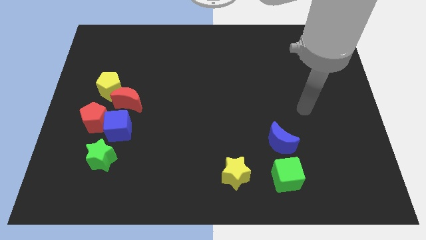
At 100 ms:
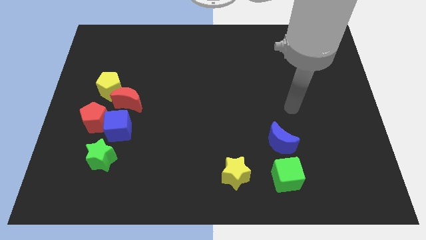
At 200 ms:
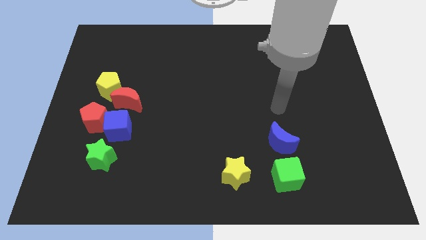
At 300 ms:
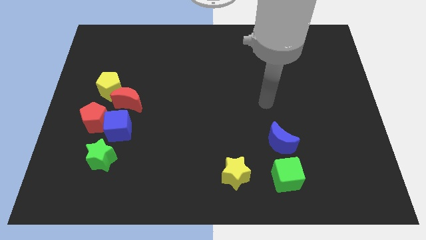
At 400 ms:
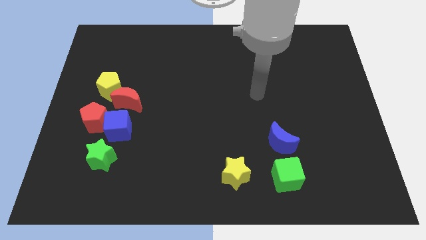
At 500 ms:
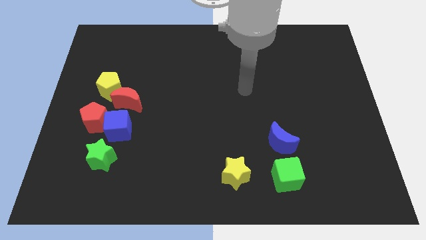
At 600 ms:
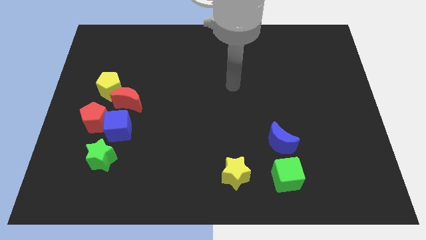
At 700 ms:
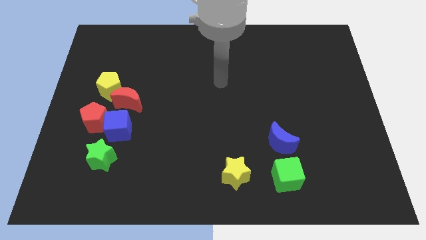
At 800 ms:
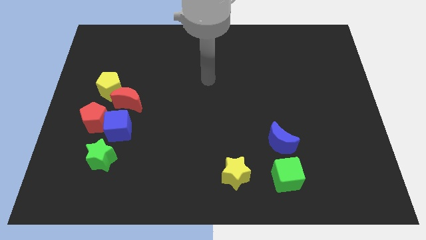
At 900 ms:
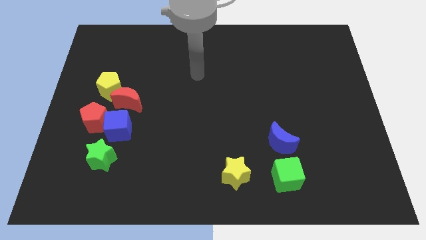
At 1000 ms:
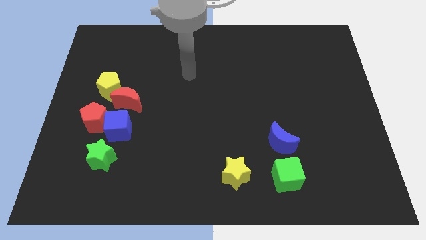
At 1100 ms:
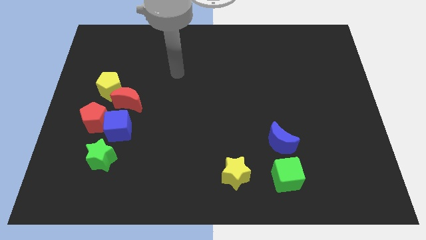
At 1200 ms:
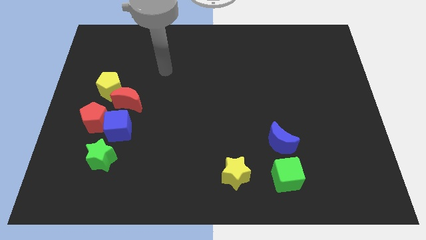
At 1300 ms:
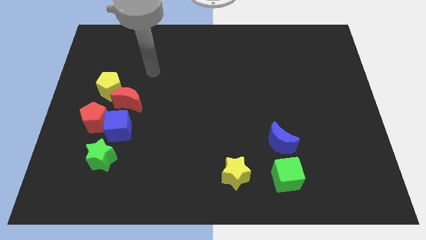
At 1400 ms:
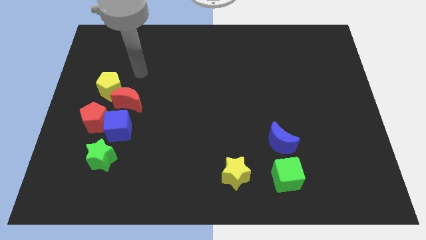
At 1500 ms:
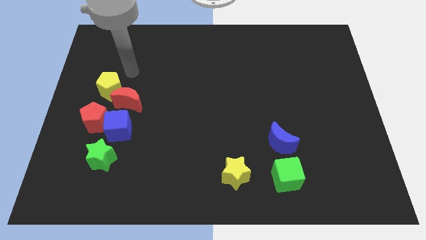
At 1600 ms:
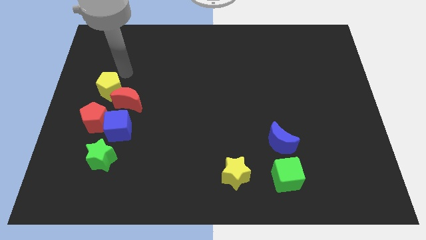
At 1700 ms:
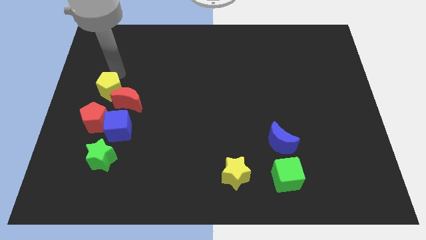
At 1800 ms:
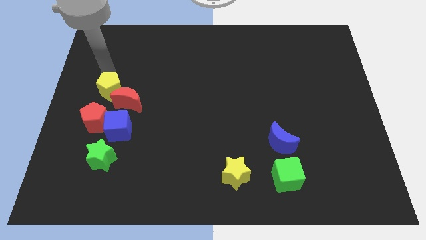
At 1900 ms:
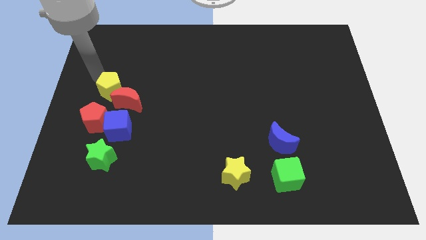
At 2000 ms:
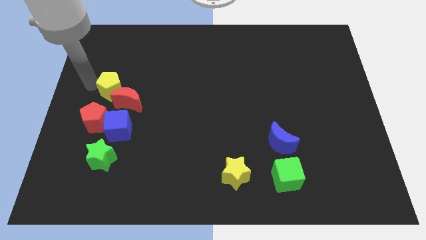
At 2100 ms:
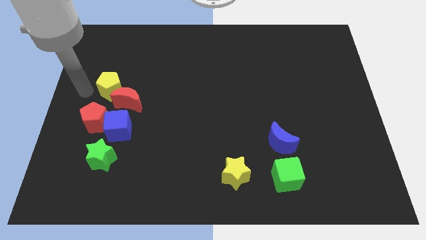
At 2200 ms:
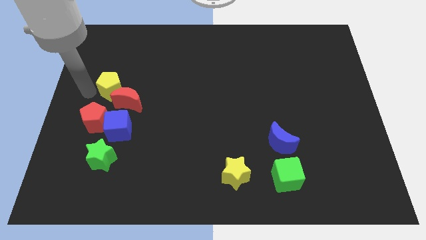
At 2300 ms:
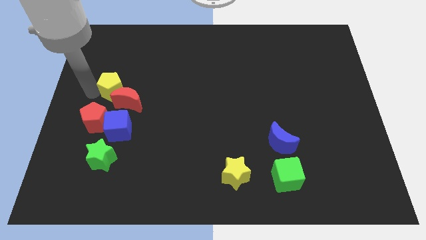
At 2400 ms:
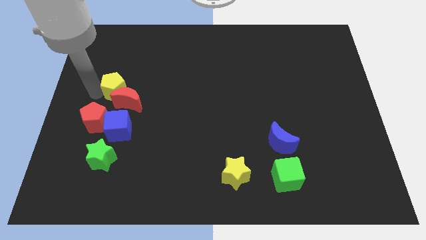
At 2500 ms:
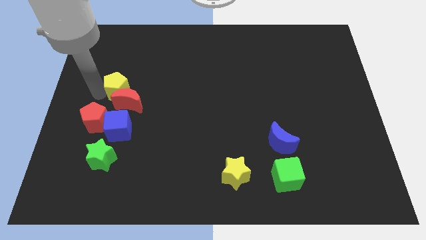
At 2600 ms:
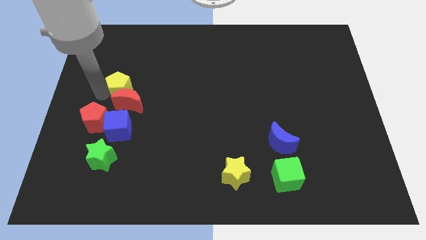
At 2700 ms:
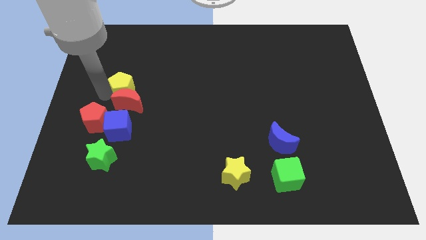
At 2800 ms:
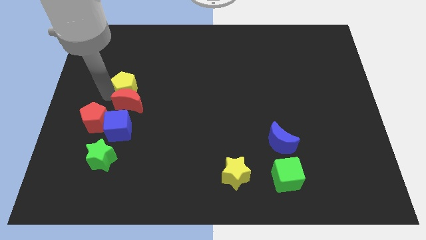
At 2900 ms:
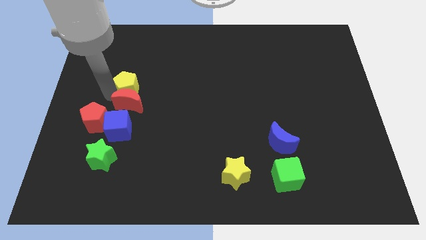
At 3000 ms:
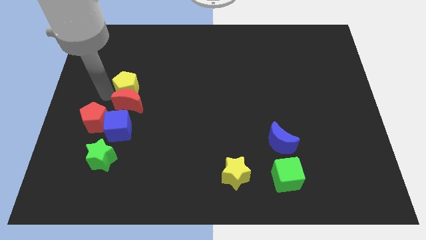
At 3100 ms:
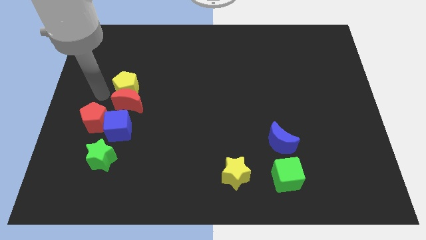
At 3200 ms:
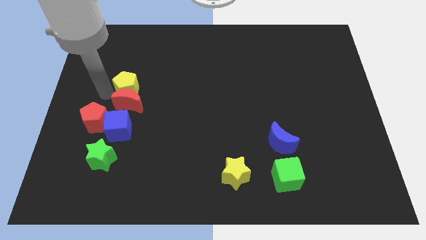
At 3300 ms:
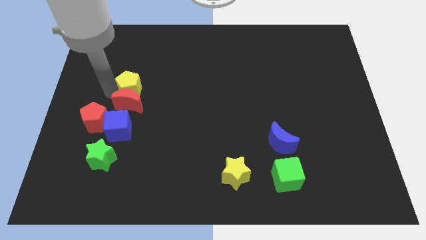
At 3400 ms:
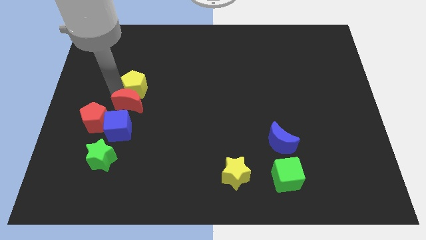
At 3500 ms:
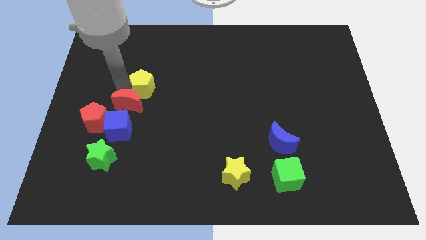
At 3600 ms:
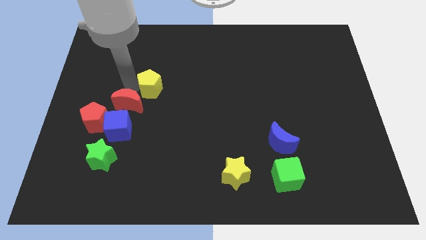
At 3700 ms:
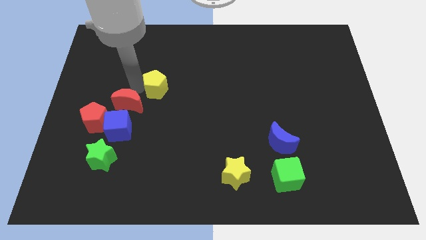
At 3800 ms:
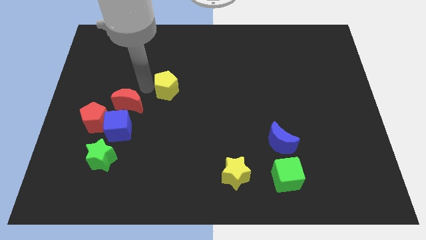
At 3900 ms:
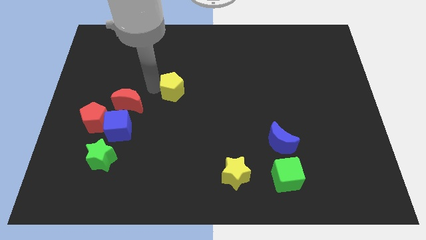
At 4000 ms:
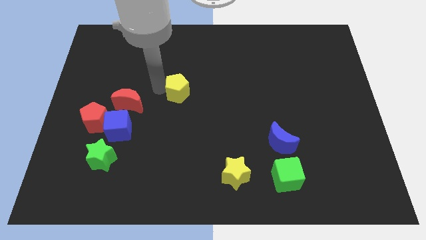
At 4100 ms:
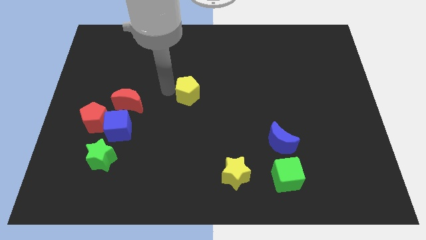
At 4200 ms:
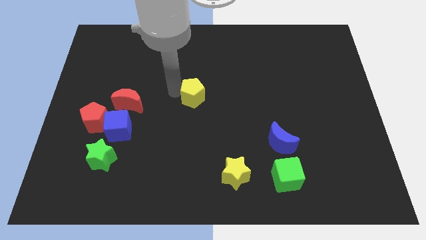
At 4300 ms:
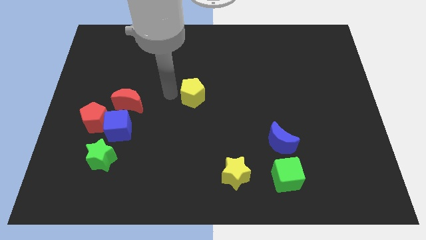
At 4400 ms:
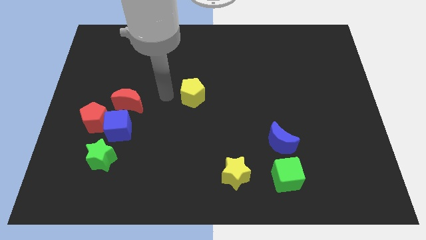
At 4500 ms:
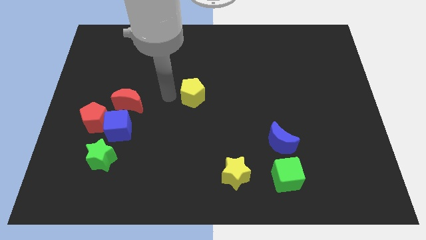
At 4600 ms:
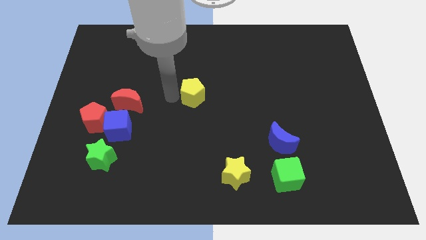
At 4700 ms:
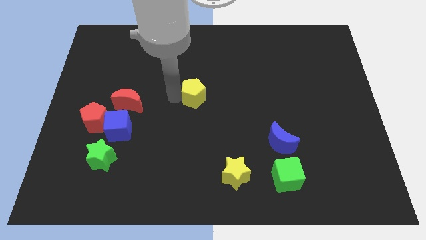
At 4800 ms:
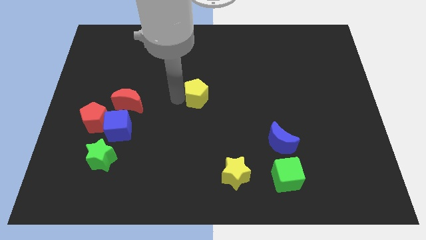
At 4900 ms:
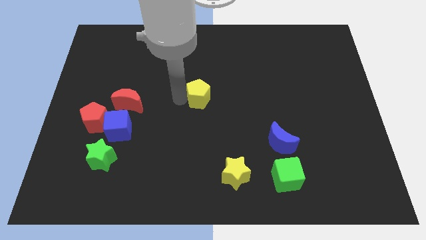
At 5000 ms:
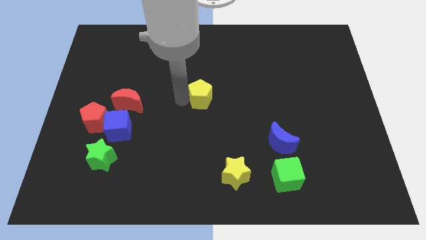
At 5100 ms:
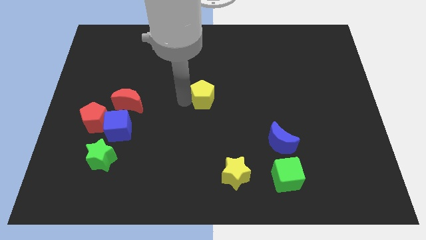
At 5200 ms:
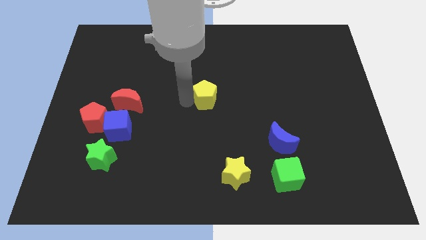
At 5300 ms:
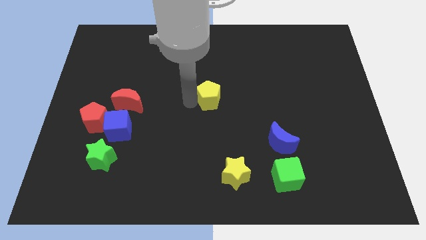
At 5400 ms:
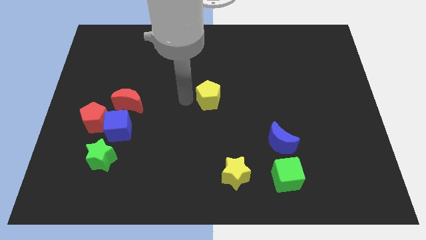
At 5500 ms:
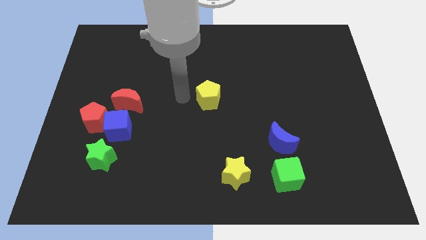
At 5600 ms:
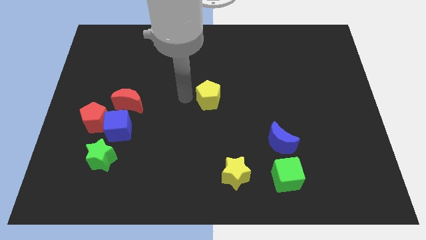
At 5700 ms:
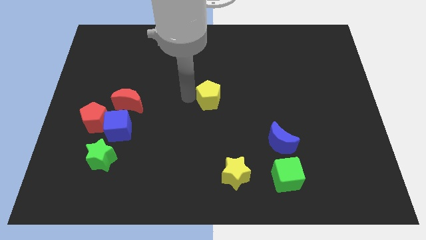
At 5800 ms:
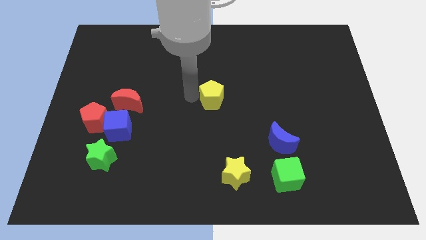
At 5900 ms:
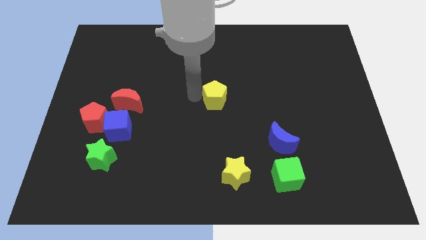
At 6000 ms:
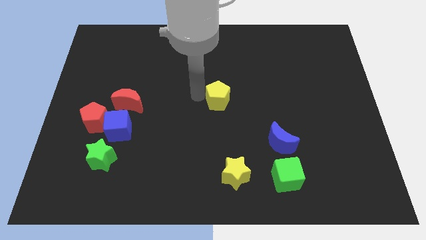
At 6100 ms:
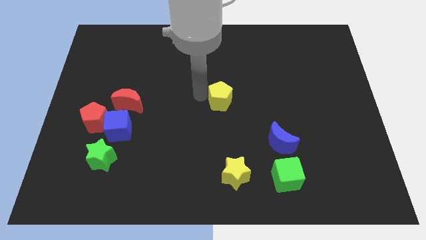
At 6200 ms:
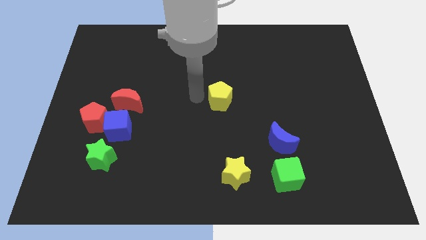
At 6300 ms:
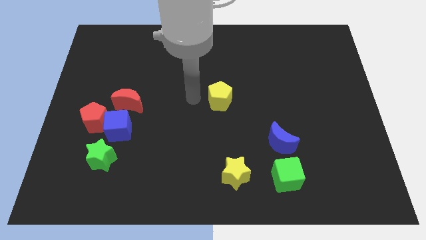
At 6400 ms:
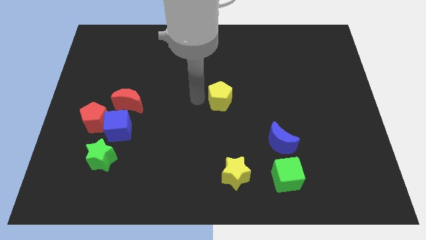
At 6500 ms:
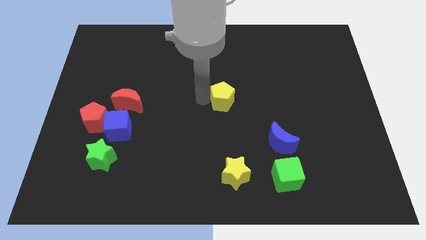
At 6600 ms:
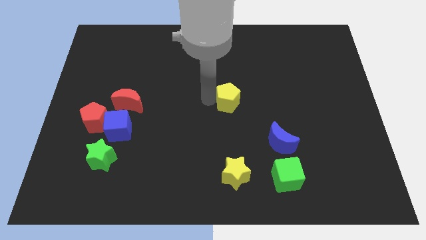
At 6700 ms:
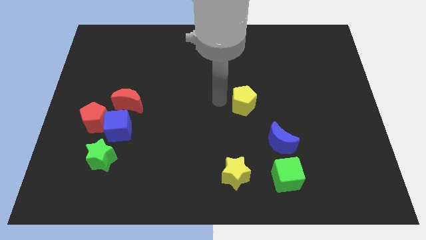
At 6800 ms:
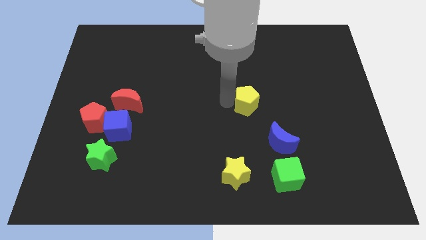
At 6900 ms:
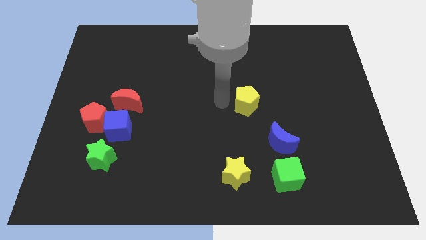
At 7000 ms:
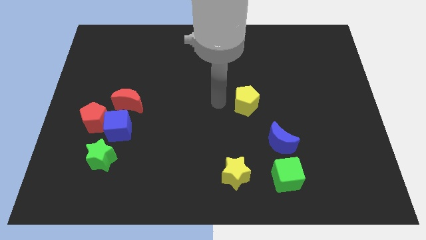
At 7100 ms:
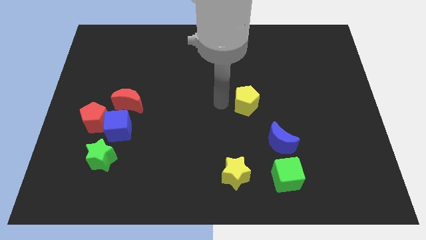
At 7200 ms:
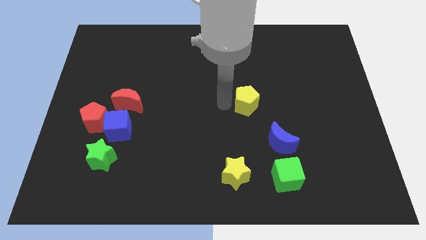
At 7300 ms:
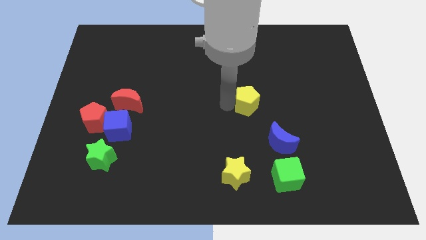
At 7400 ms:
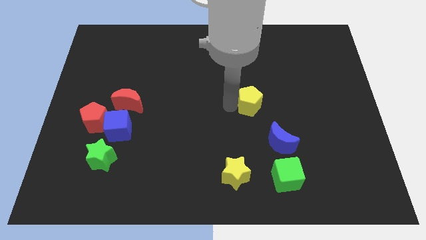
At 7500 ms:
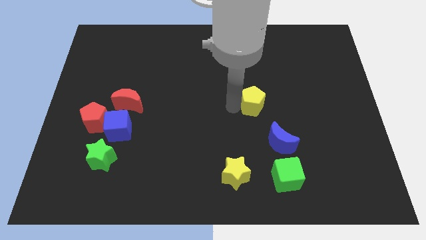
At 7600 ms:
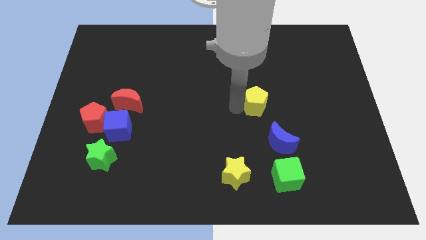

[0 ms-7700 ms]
slide the yellow pentagon above the blue moon
